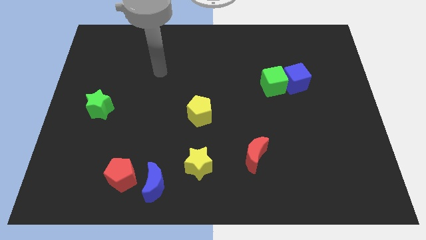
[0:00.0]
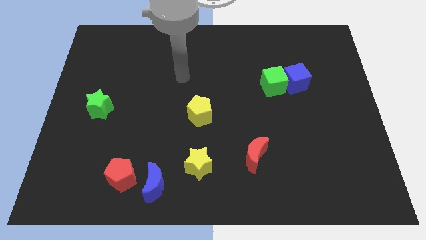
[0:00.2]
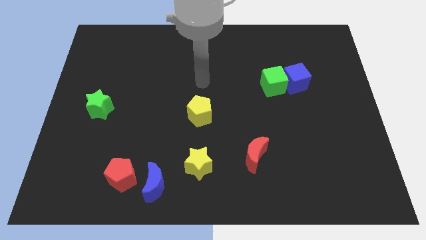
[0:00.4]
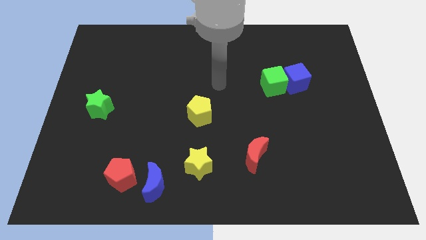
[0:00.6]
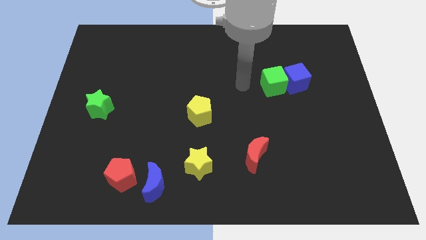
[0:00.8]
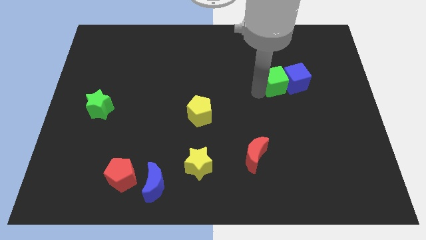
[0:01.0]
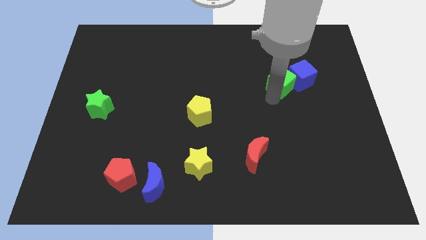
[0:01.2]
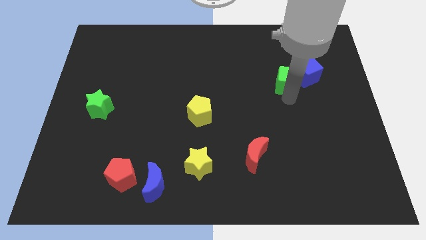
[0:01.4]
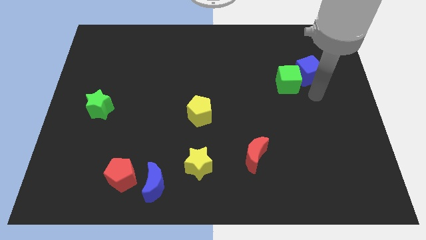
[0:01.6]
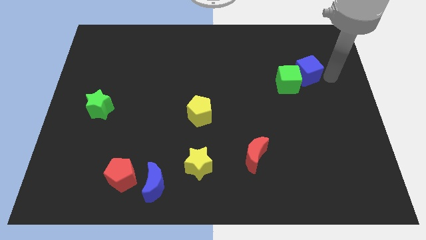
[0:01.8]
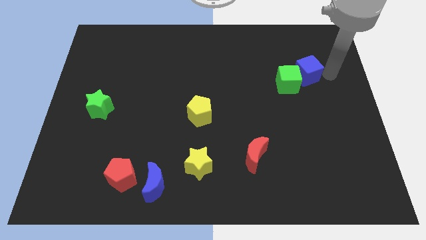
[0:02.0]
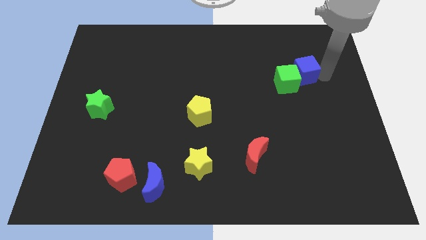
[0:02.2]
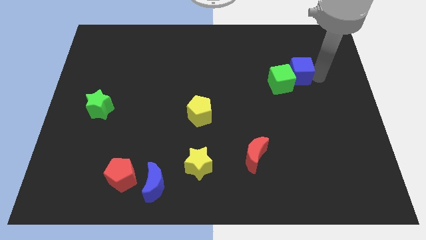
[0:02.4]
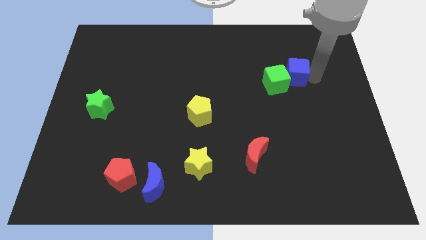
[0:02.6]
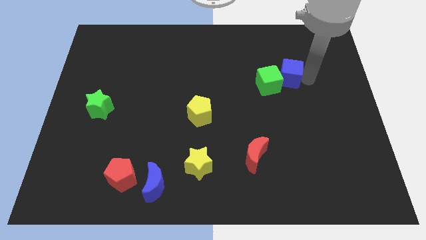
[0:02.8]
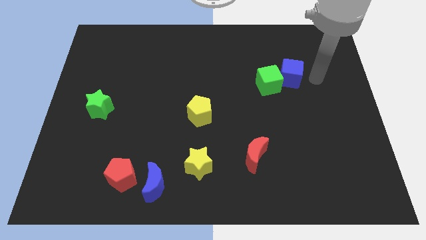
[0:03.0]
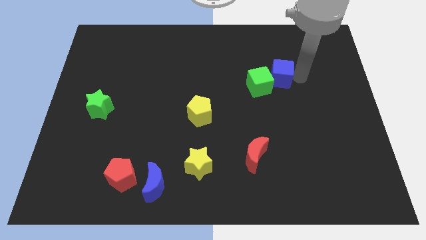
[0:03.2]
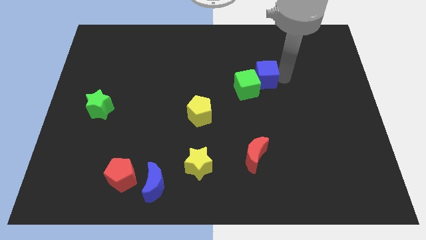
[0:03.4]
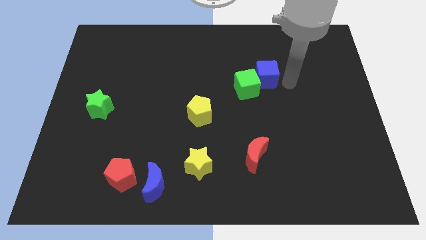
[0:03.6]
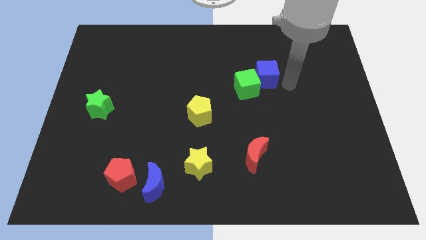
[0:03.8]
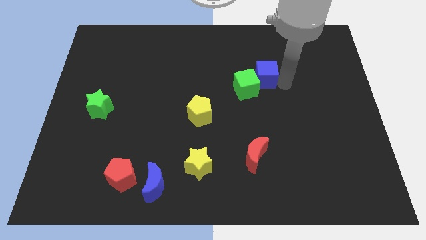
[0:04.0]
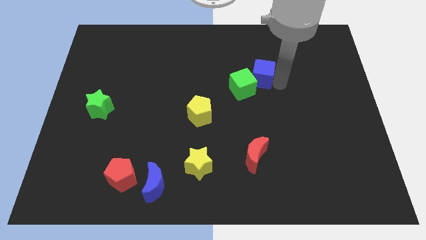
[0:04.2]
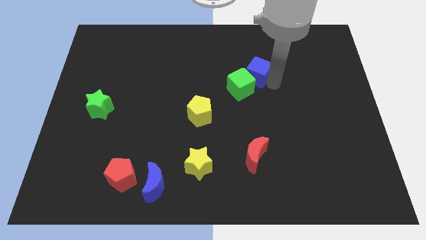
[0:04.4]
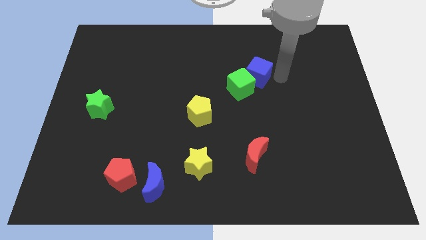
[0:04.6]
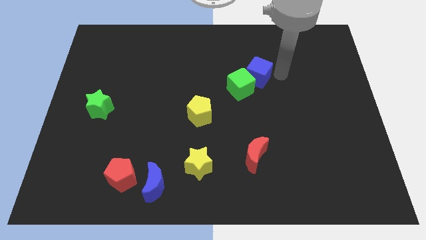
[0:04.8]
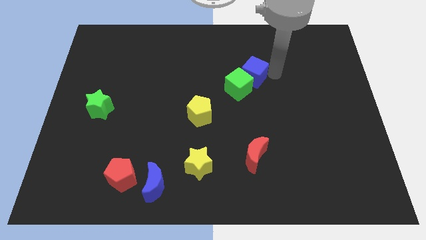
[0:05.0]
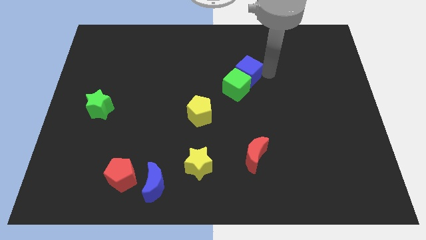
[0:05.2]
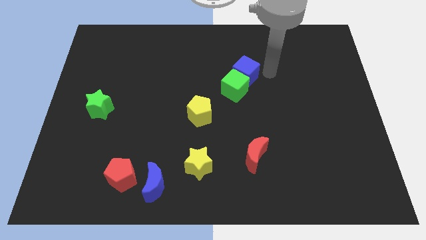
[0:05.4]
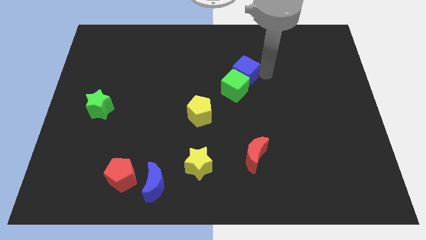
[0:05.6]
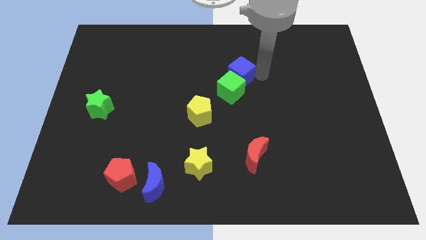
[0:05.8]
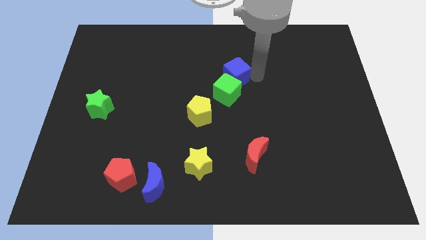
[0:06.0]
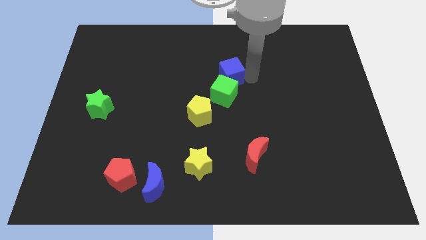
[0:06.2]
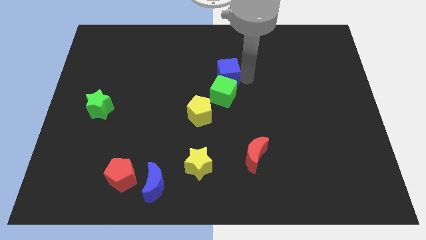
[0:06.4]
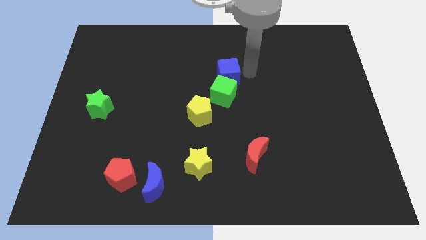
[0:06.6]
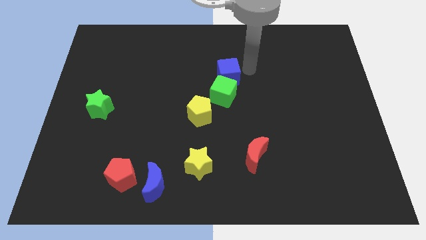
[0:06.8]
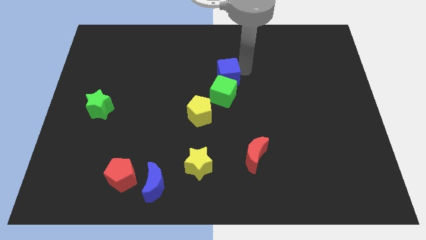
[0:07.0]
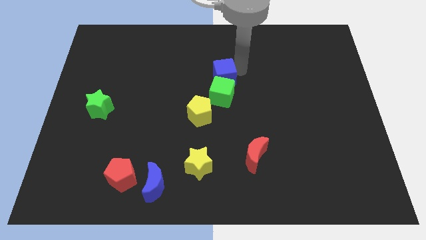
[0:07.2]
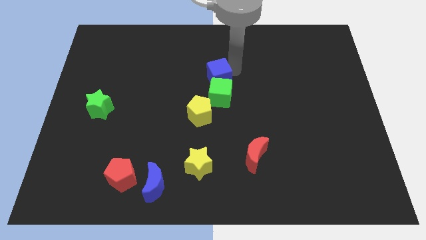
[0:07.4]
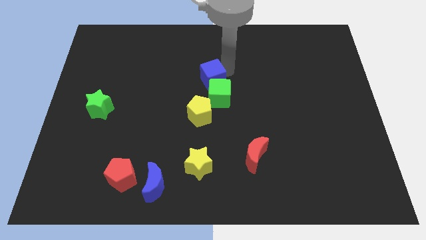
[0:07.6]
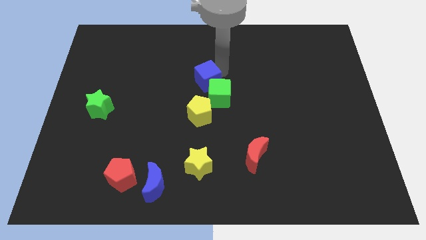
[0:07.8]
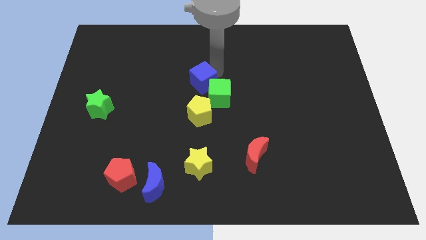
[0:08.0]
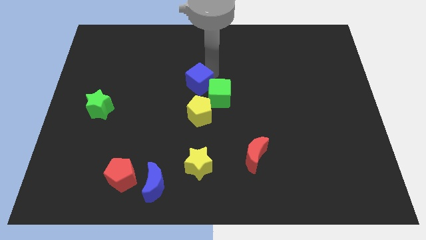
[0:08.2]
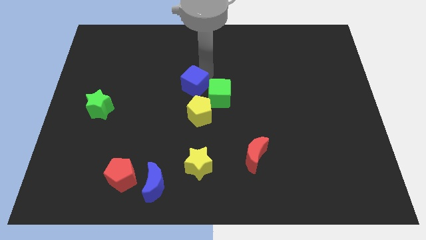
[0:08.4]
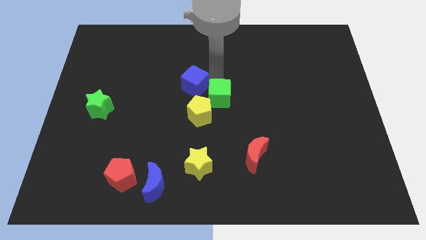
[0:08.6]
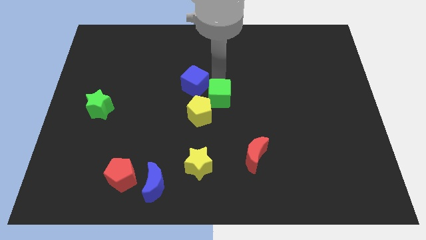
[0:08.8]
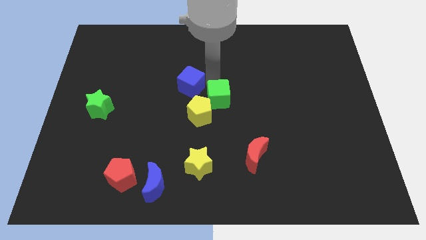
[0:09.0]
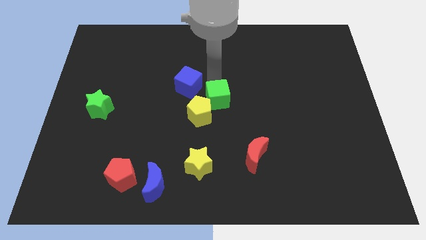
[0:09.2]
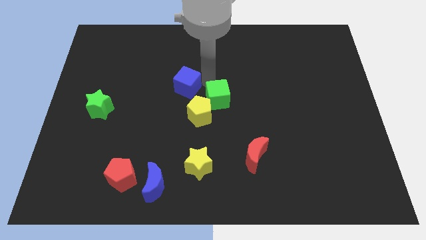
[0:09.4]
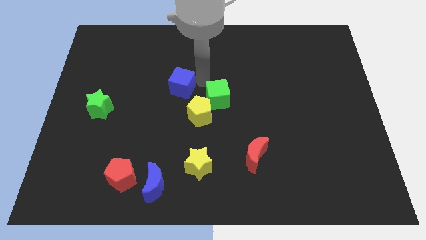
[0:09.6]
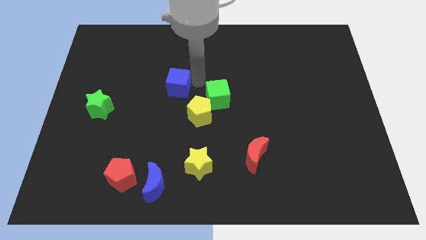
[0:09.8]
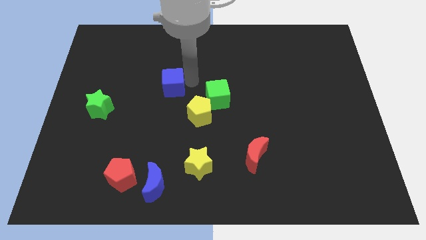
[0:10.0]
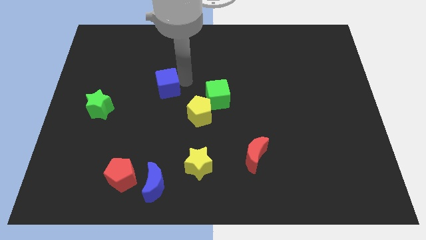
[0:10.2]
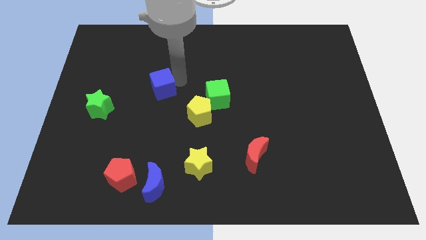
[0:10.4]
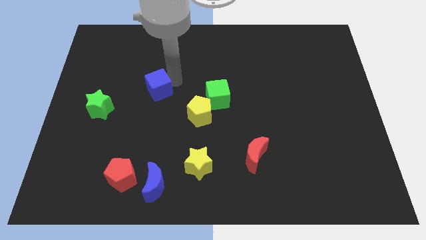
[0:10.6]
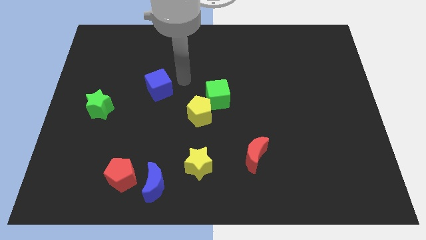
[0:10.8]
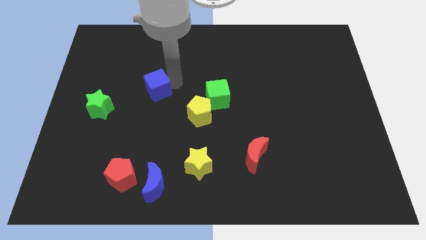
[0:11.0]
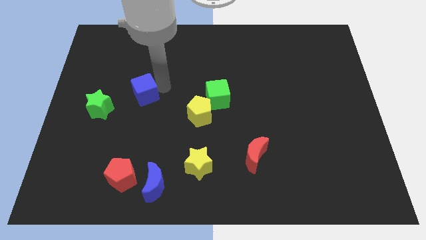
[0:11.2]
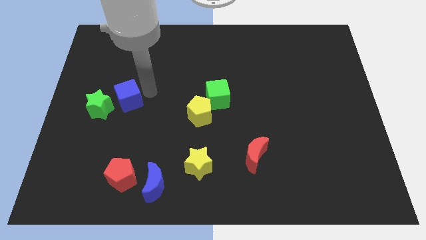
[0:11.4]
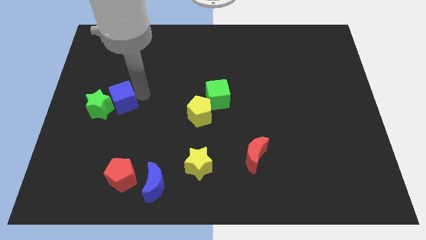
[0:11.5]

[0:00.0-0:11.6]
slide the blue cube to the green star

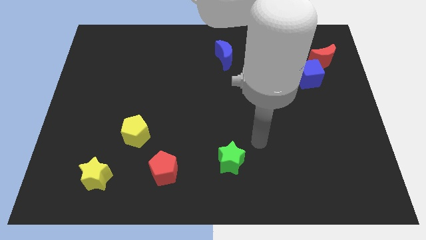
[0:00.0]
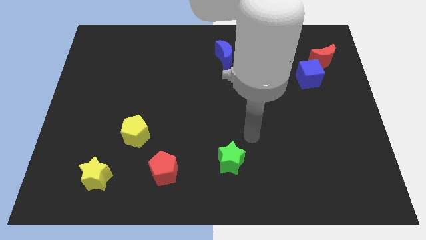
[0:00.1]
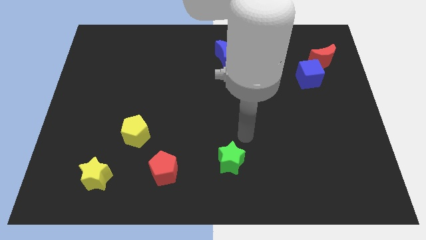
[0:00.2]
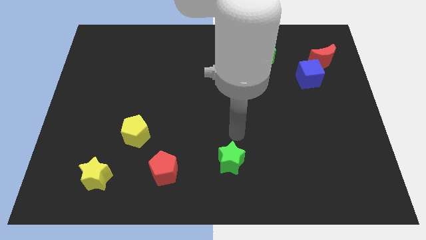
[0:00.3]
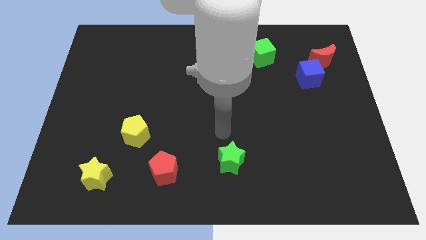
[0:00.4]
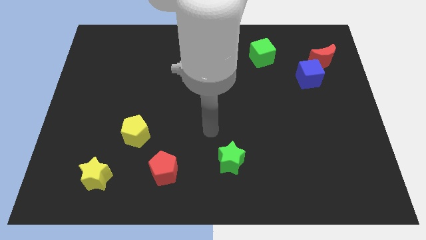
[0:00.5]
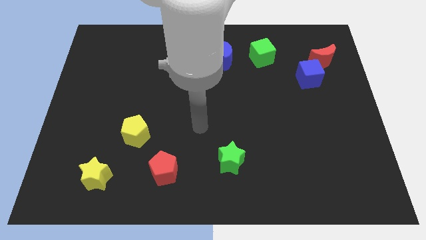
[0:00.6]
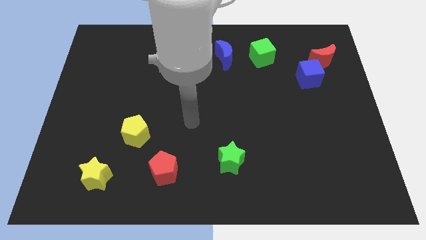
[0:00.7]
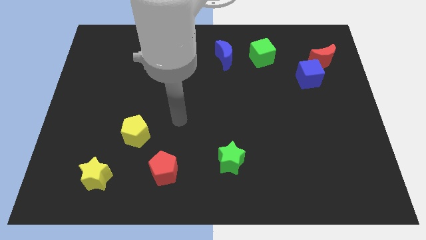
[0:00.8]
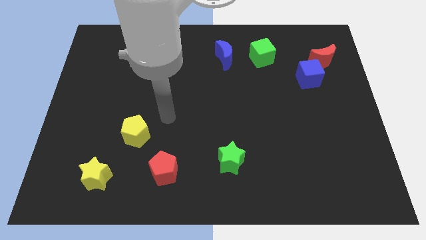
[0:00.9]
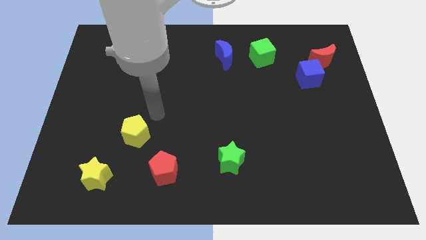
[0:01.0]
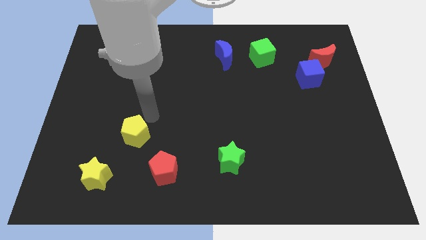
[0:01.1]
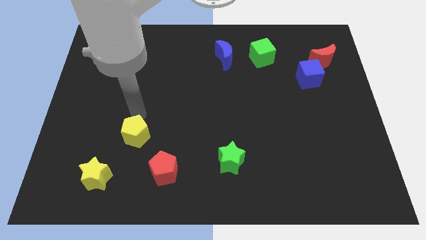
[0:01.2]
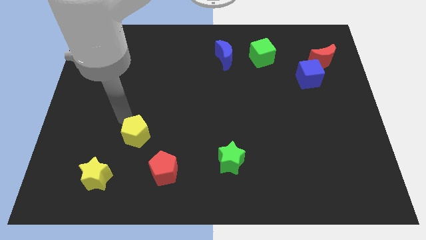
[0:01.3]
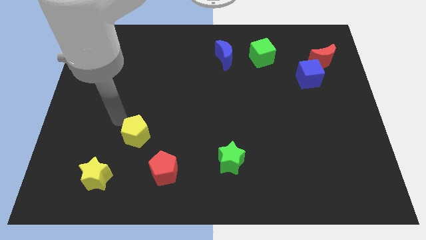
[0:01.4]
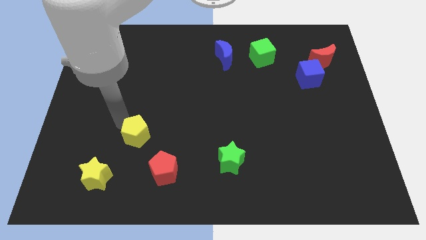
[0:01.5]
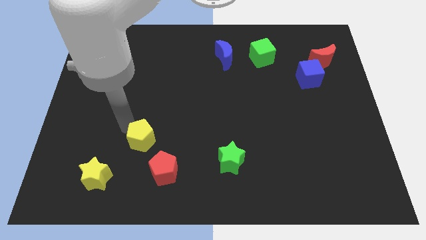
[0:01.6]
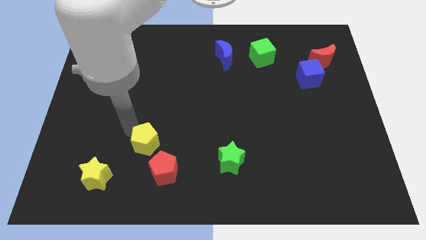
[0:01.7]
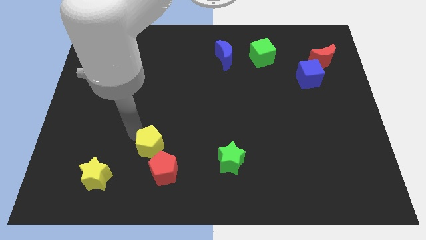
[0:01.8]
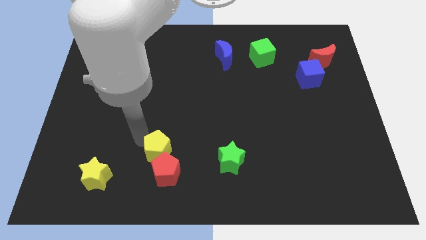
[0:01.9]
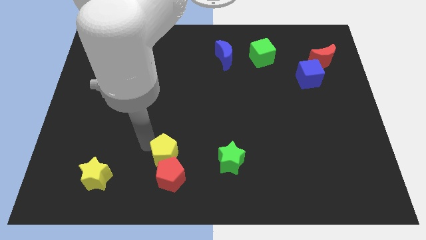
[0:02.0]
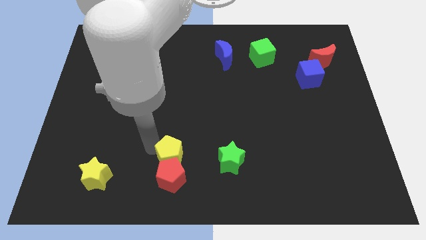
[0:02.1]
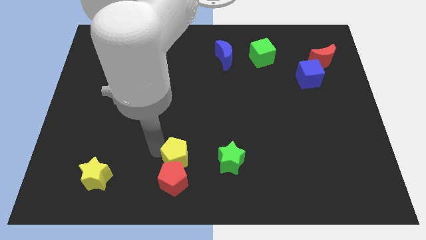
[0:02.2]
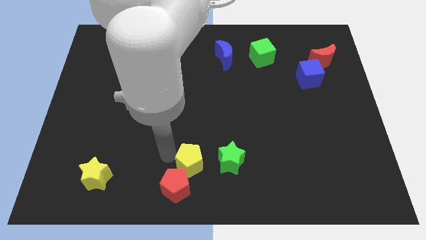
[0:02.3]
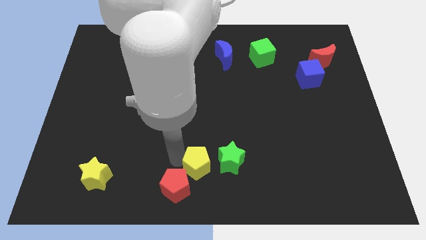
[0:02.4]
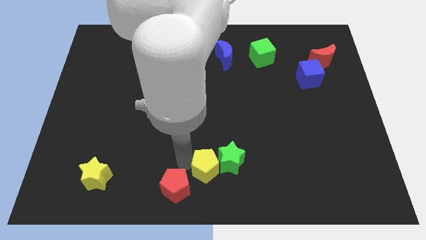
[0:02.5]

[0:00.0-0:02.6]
move the yellow pentagon towards the green star
